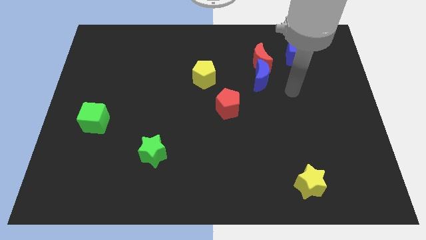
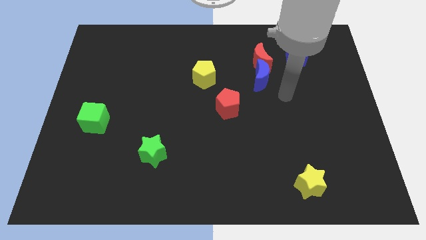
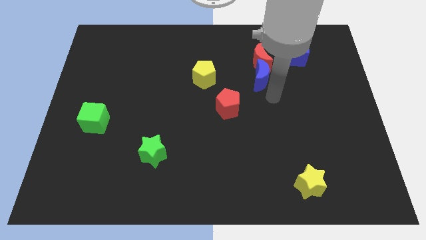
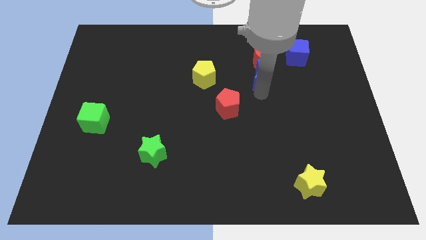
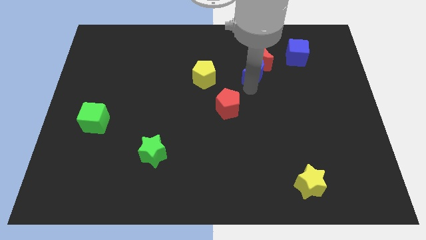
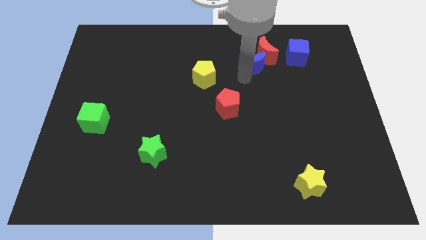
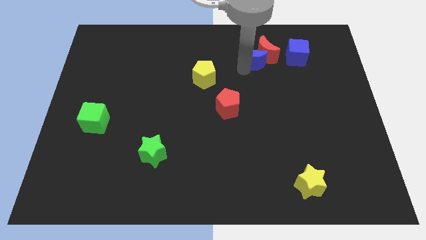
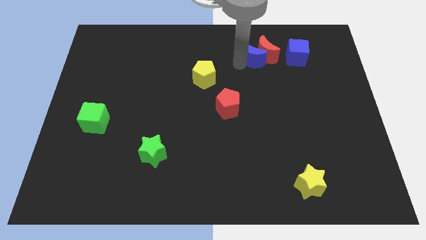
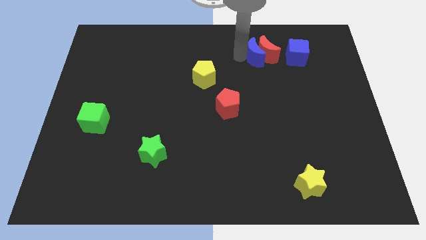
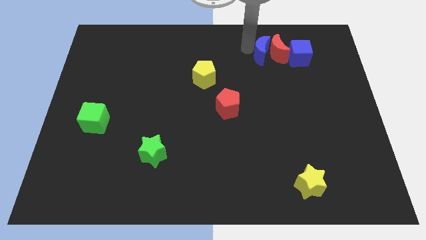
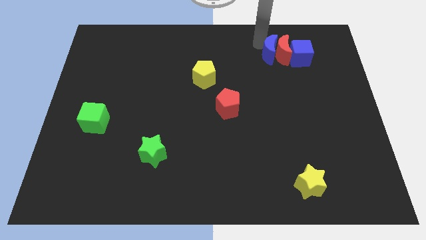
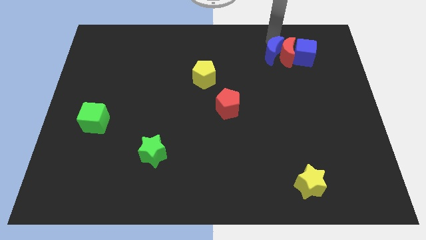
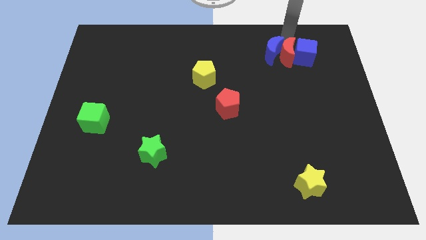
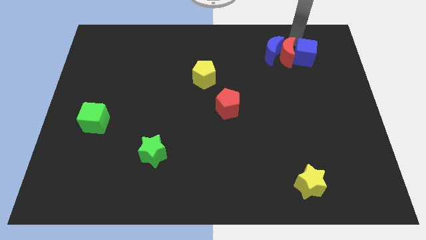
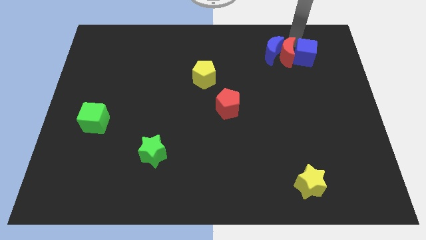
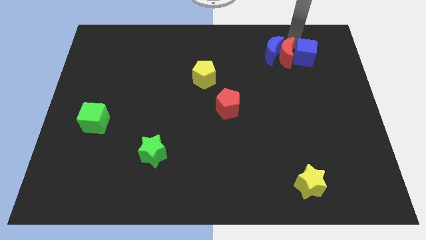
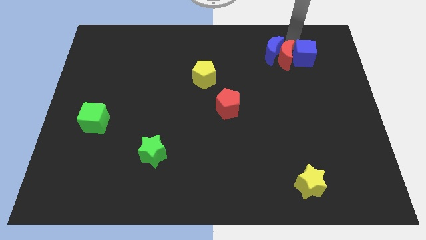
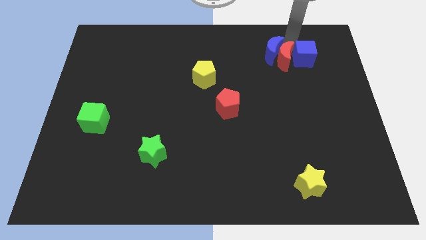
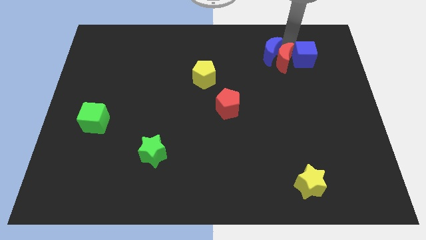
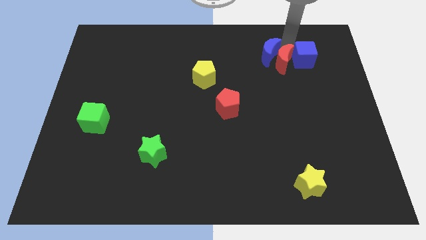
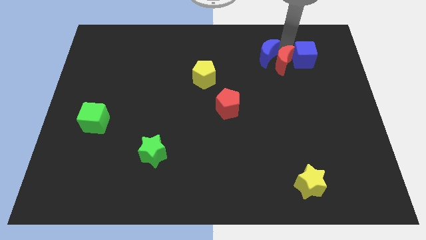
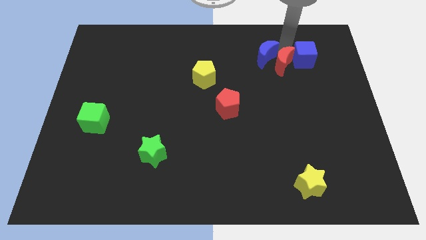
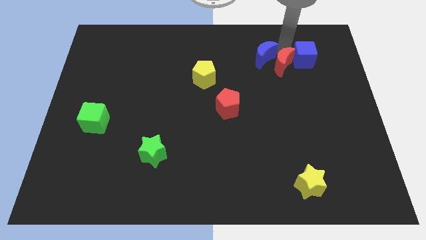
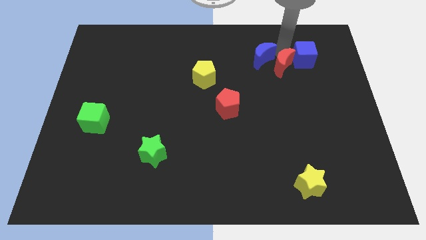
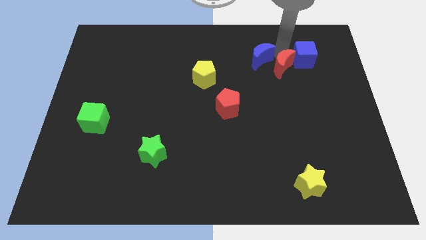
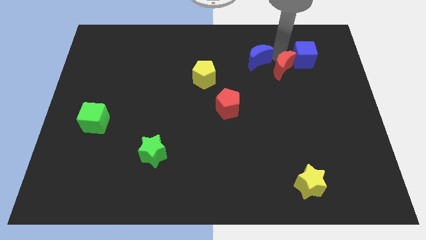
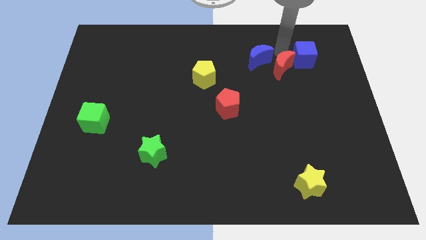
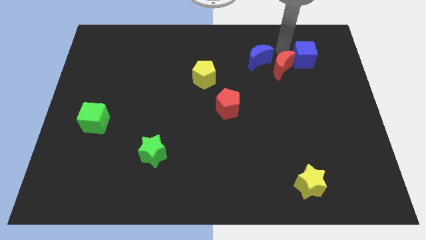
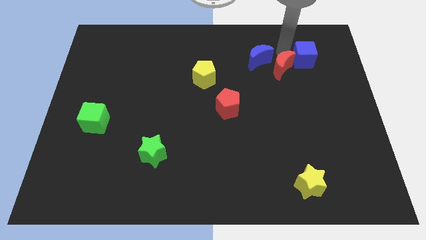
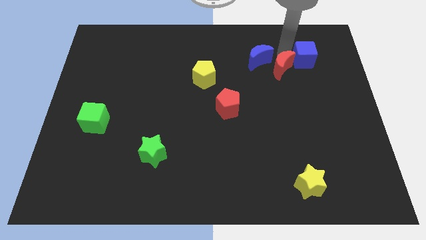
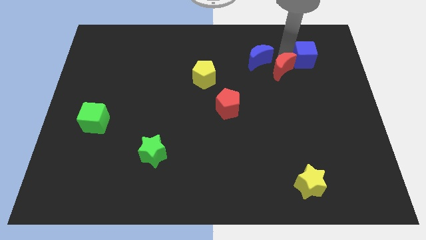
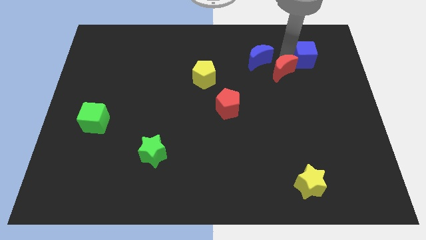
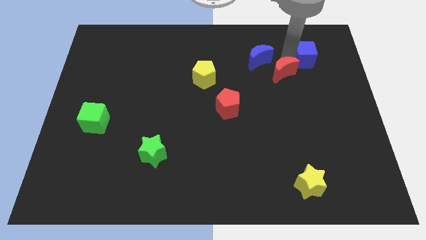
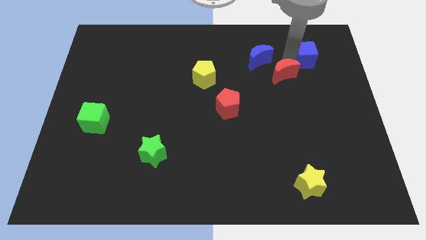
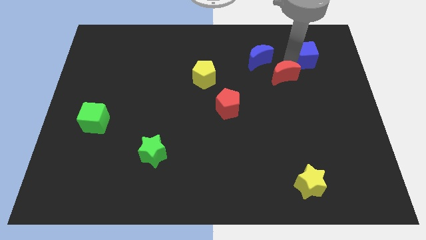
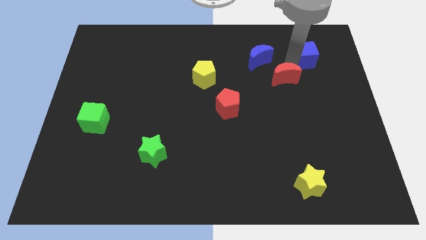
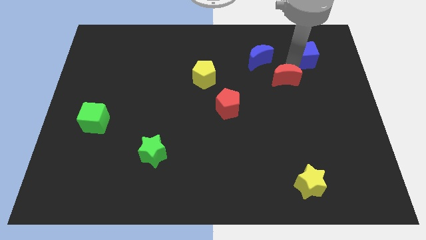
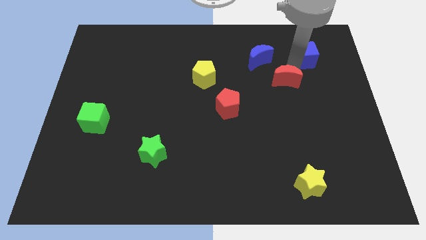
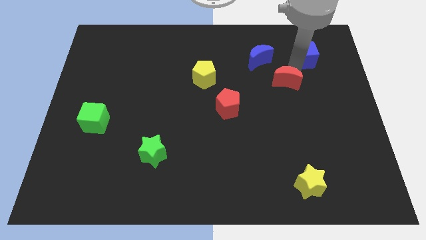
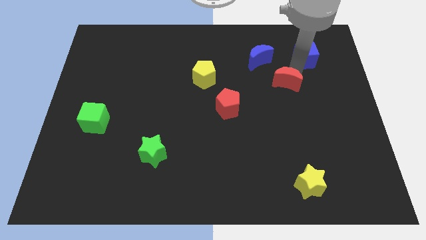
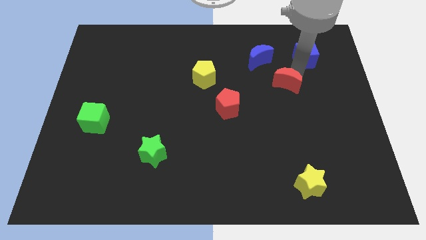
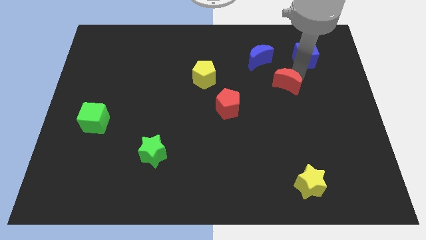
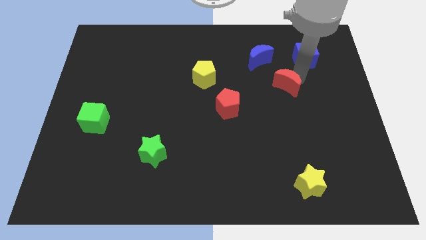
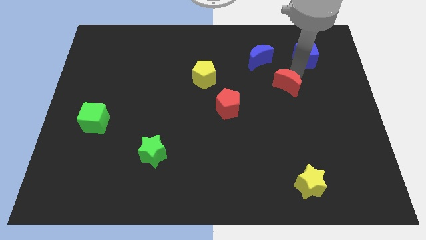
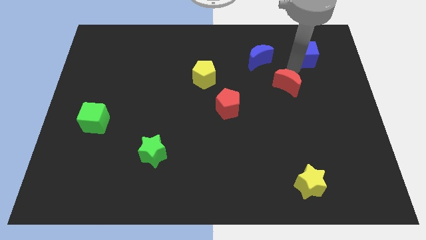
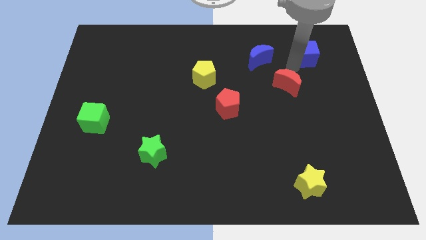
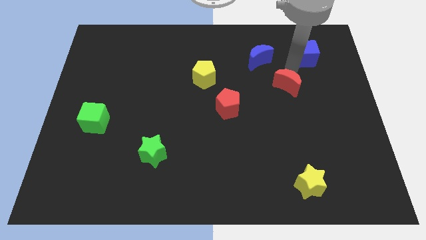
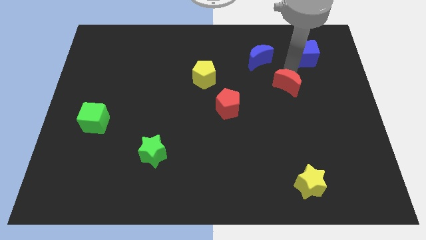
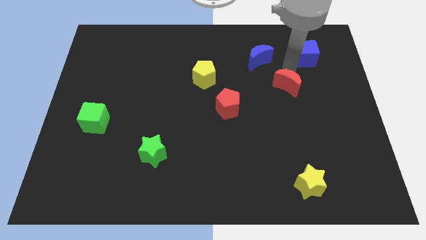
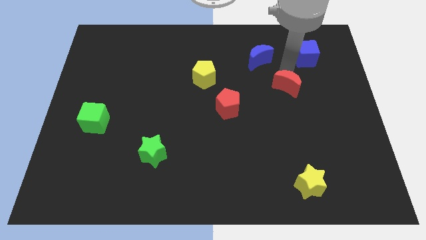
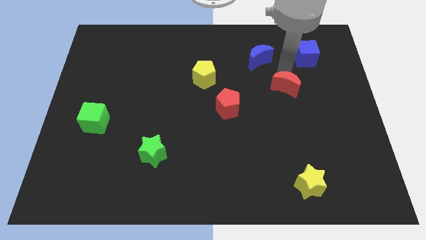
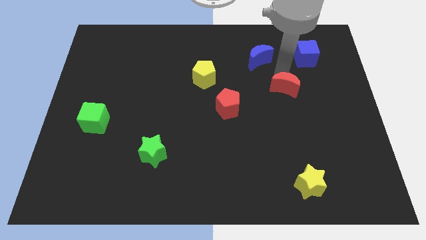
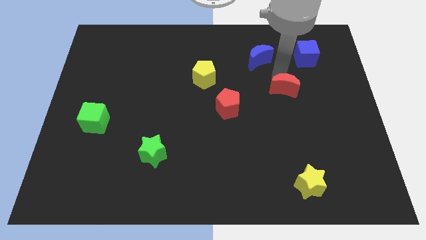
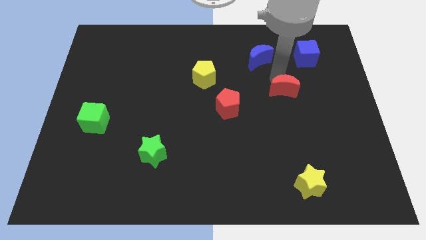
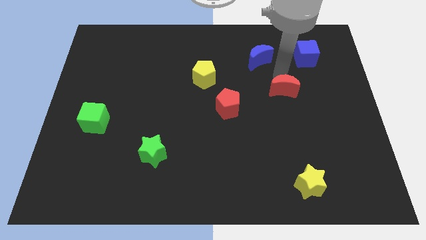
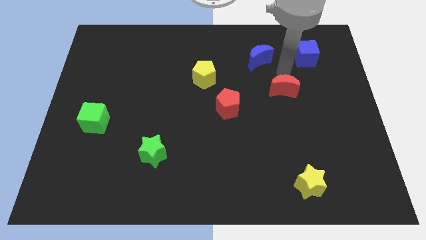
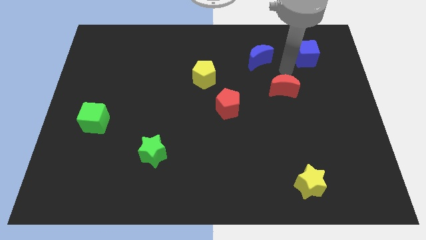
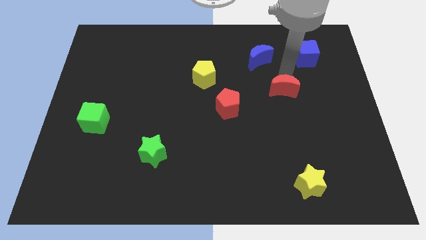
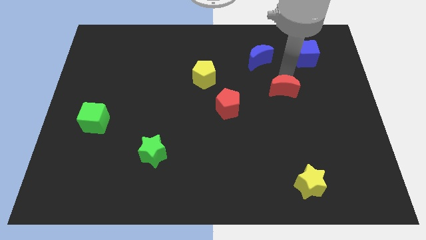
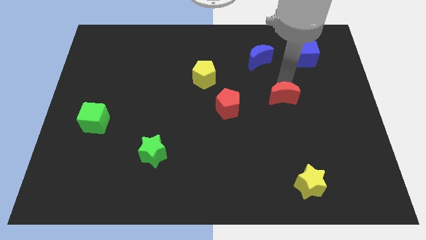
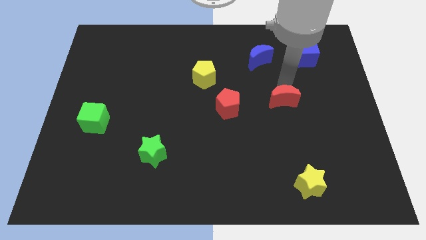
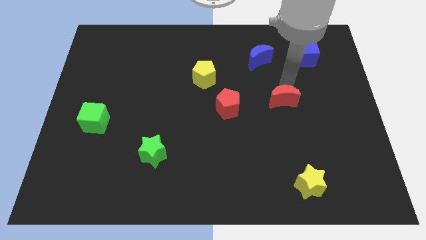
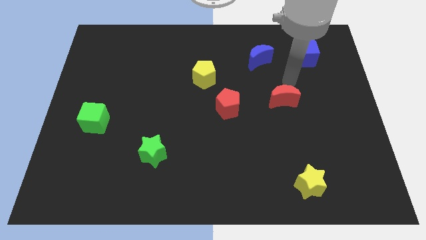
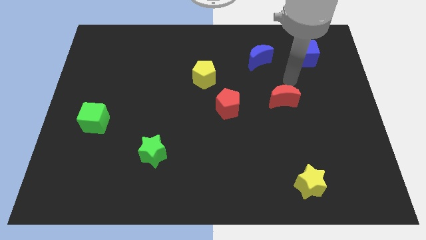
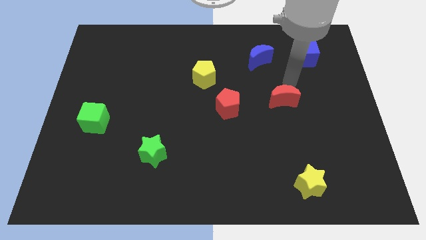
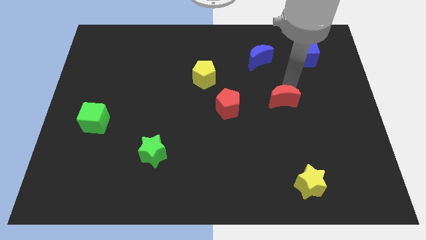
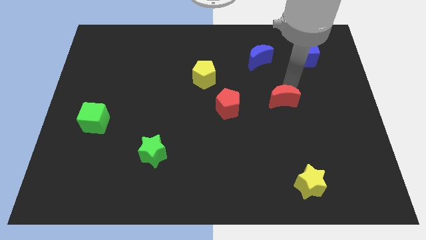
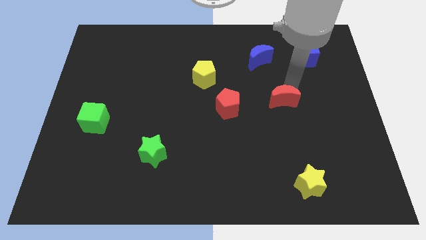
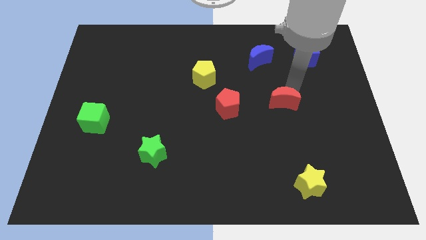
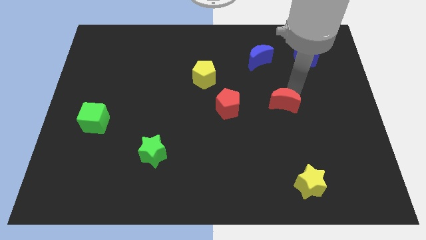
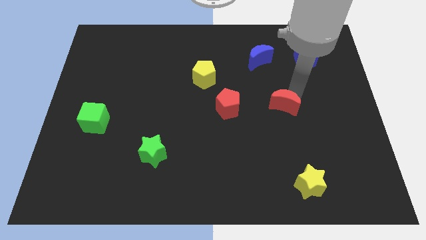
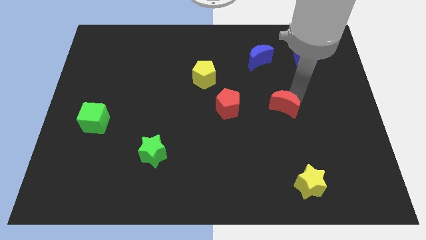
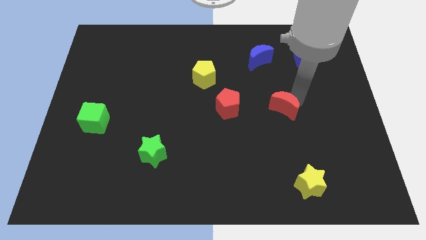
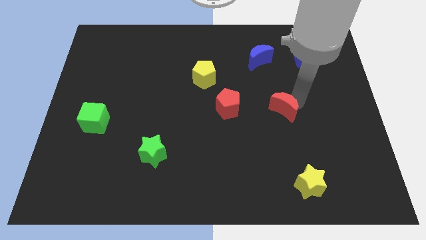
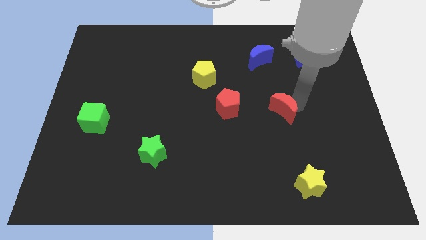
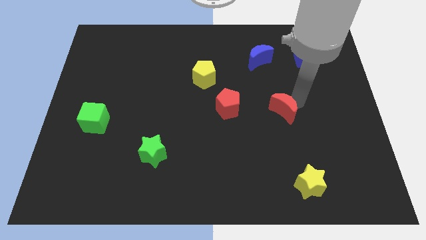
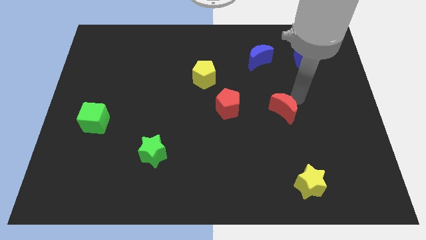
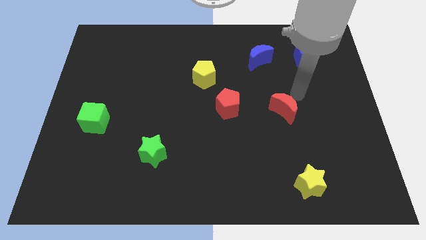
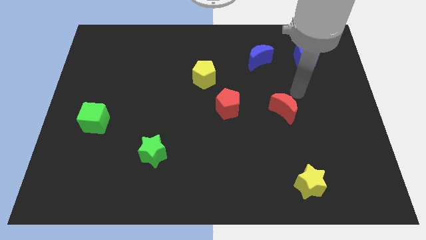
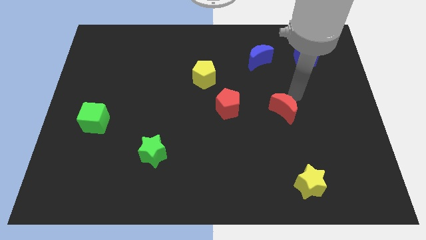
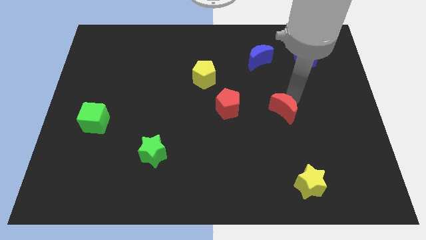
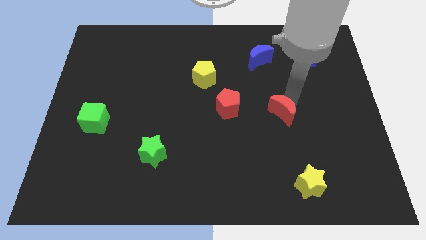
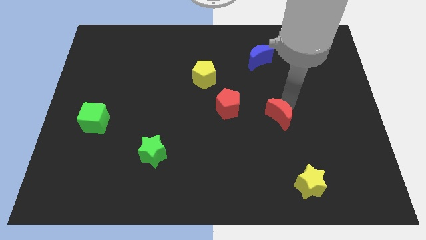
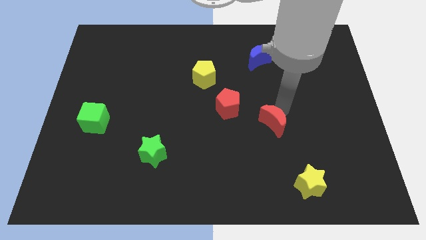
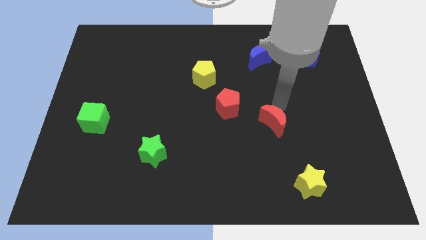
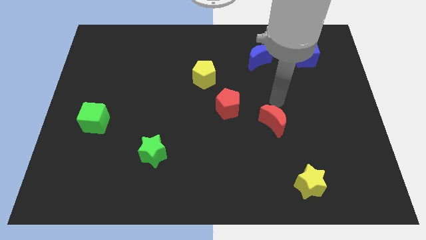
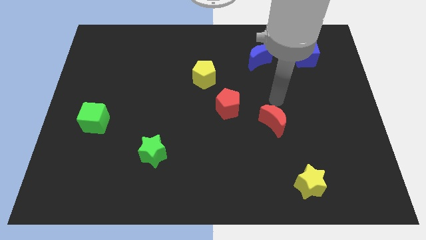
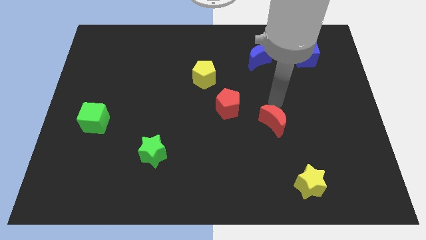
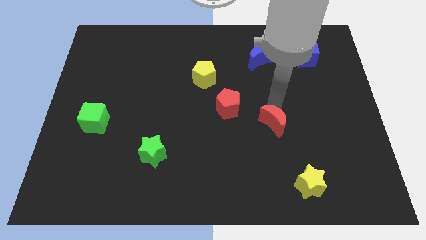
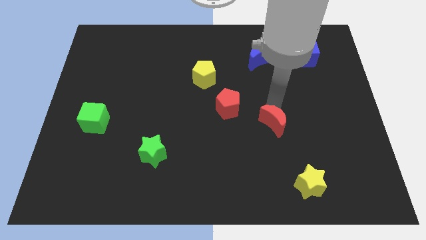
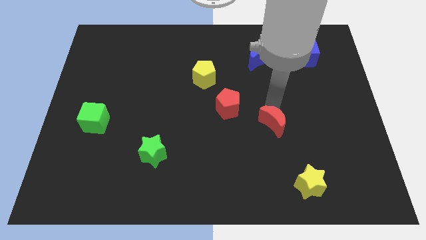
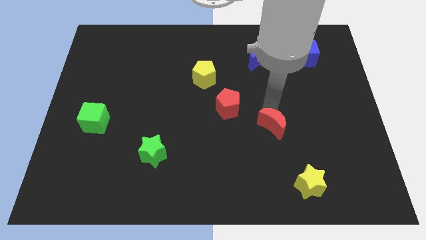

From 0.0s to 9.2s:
move the red moon downwards
